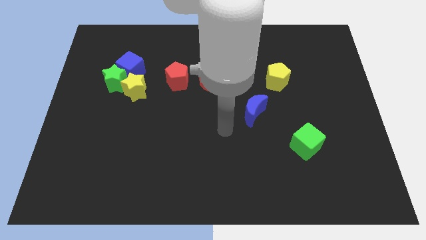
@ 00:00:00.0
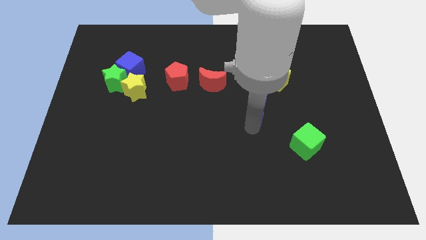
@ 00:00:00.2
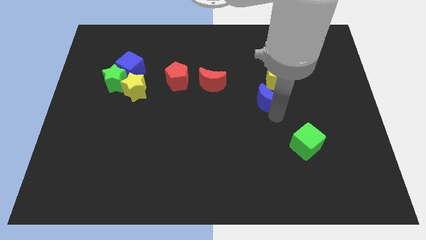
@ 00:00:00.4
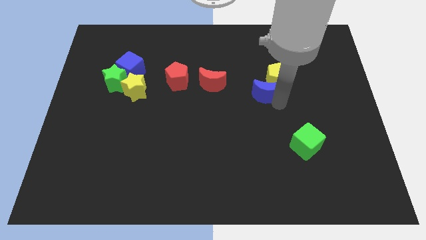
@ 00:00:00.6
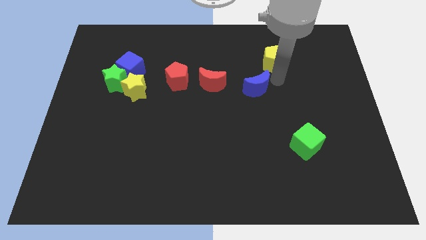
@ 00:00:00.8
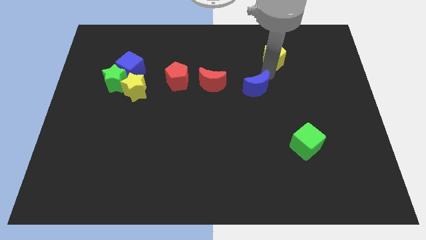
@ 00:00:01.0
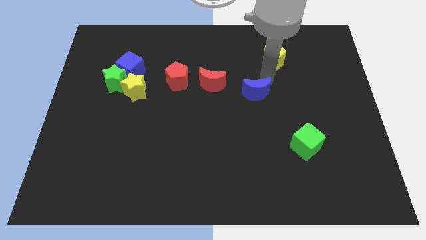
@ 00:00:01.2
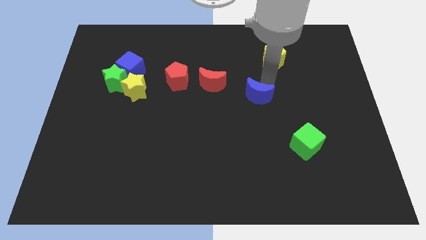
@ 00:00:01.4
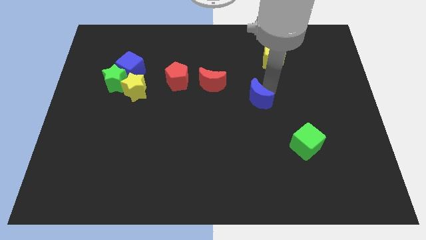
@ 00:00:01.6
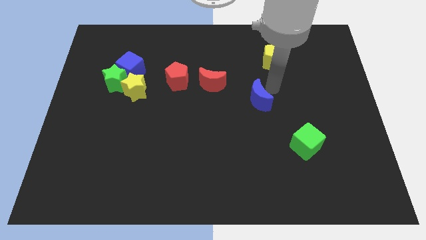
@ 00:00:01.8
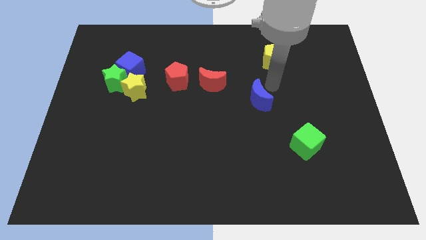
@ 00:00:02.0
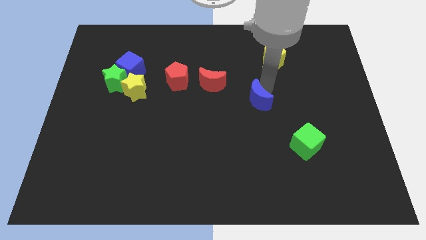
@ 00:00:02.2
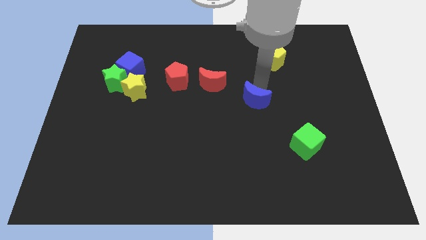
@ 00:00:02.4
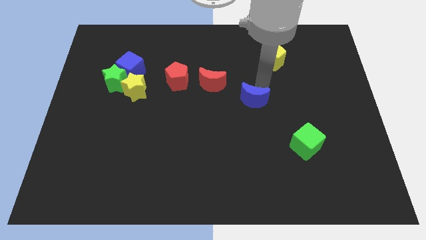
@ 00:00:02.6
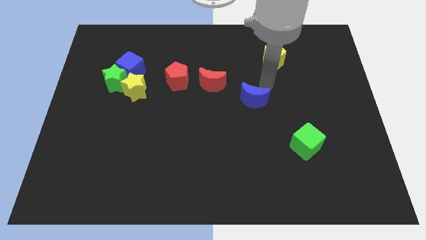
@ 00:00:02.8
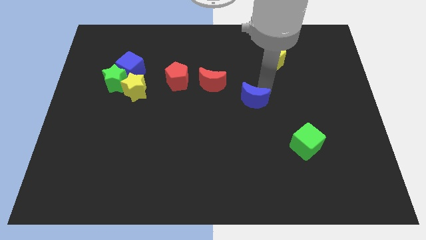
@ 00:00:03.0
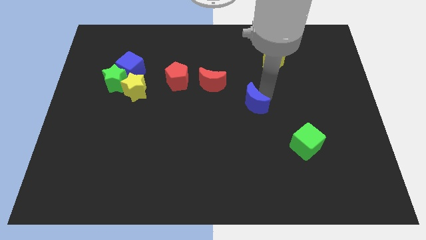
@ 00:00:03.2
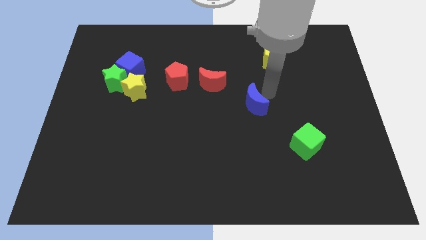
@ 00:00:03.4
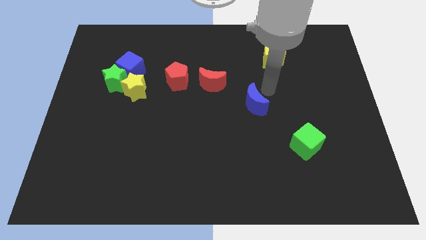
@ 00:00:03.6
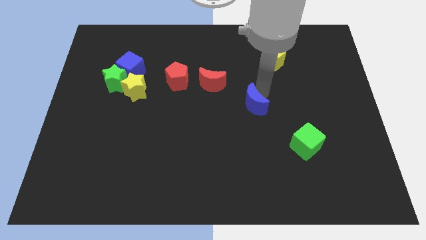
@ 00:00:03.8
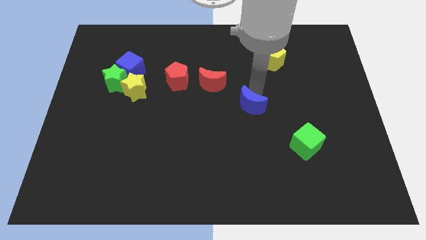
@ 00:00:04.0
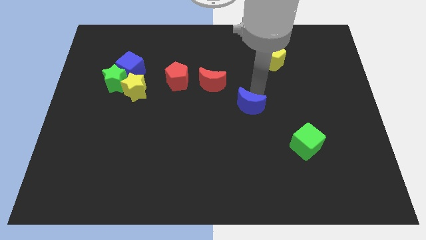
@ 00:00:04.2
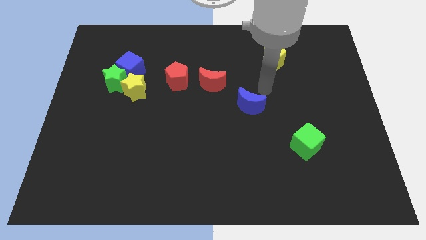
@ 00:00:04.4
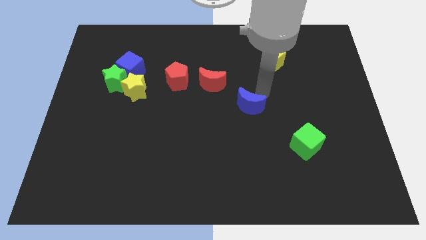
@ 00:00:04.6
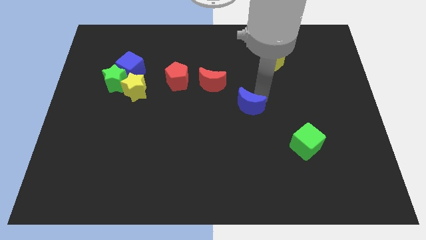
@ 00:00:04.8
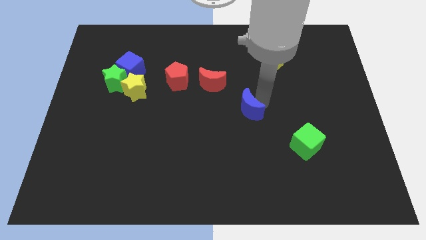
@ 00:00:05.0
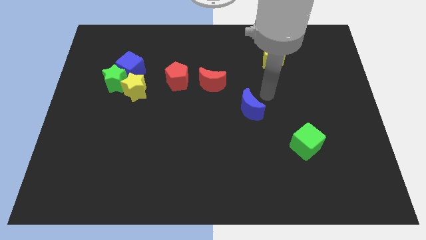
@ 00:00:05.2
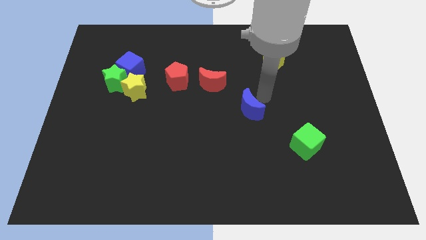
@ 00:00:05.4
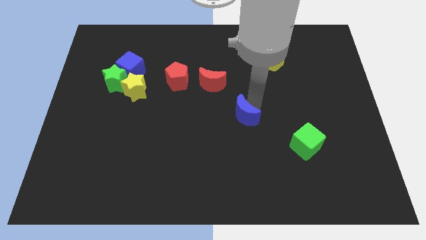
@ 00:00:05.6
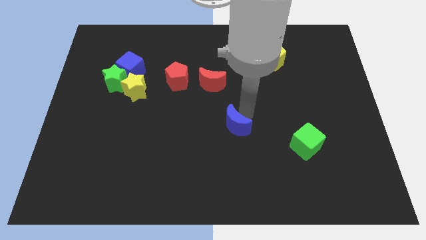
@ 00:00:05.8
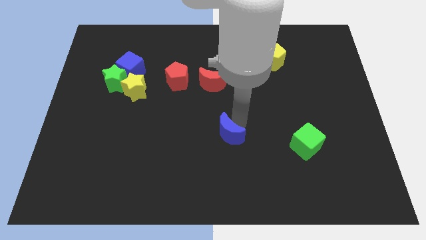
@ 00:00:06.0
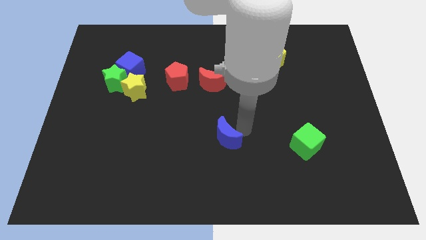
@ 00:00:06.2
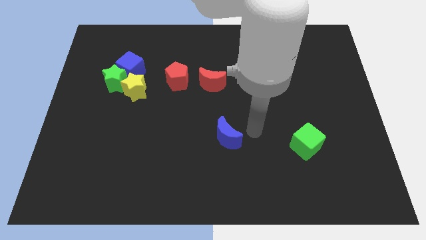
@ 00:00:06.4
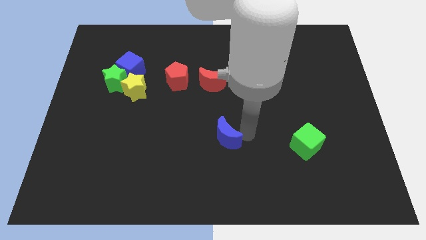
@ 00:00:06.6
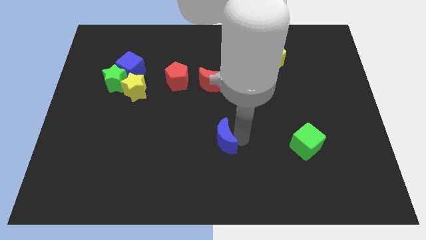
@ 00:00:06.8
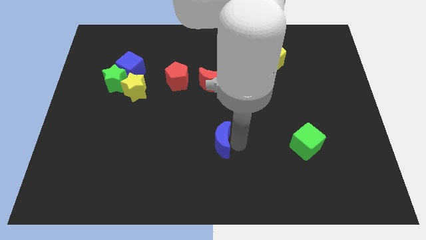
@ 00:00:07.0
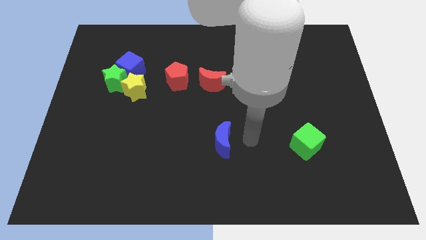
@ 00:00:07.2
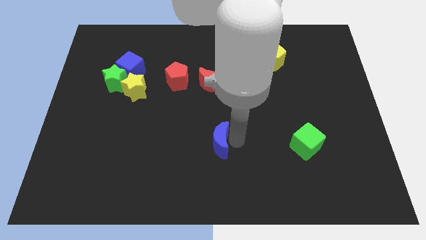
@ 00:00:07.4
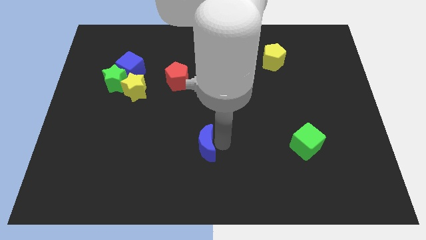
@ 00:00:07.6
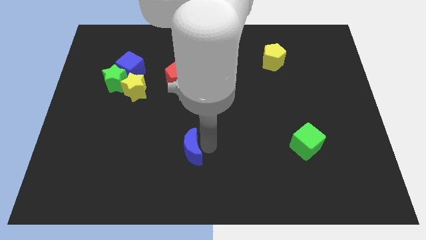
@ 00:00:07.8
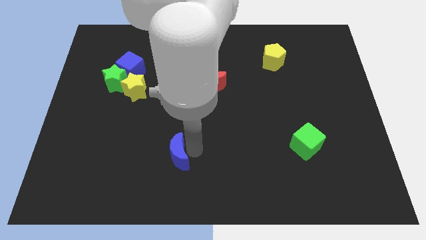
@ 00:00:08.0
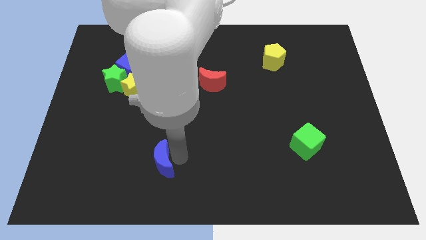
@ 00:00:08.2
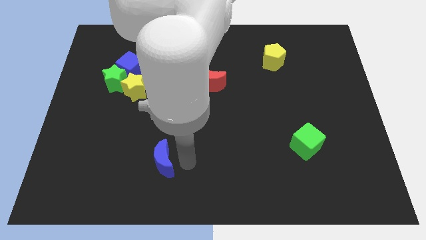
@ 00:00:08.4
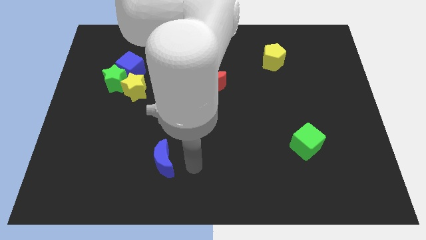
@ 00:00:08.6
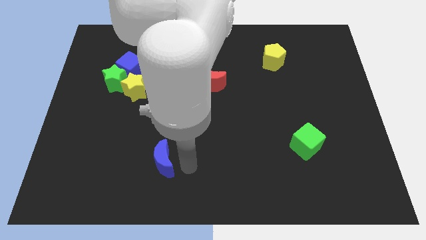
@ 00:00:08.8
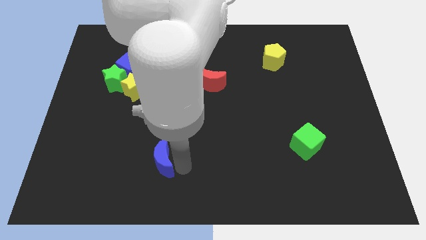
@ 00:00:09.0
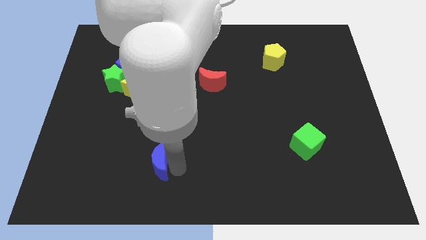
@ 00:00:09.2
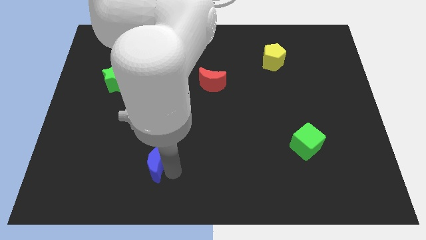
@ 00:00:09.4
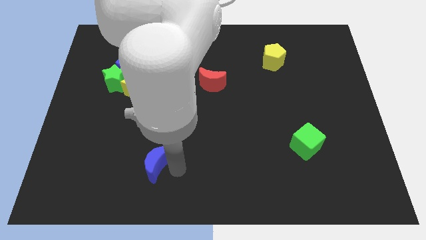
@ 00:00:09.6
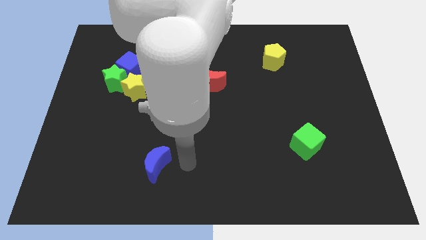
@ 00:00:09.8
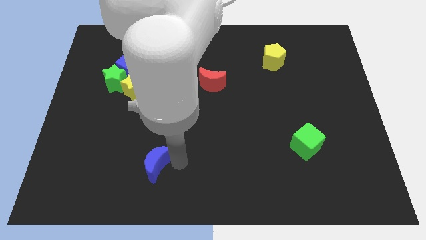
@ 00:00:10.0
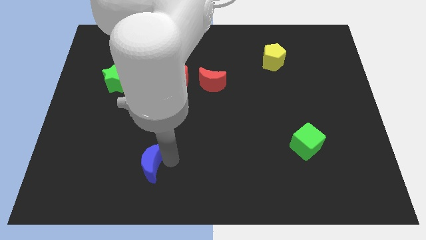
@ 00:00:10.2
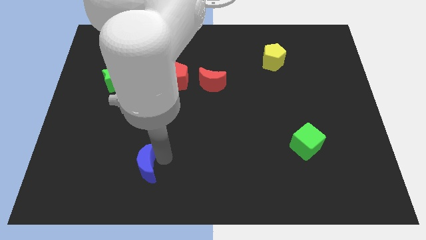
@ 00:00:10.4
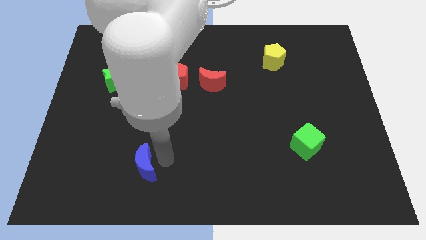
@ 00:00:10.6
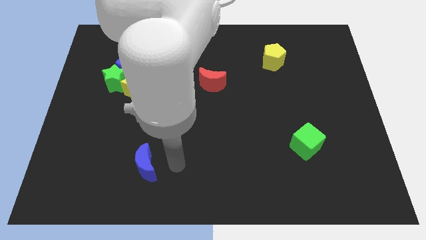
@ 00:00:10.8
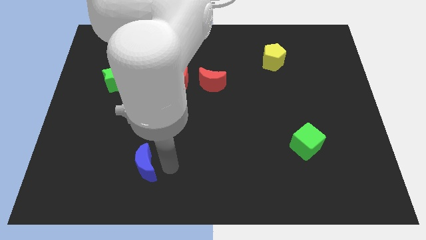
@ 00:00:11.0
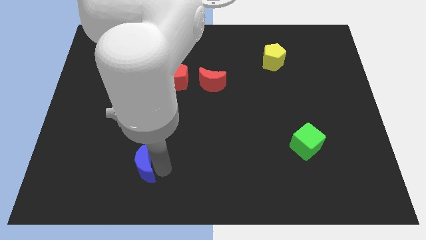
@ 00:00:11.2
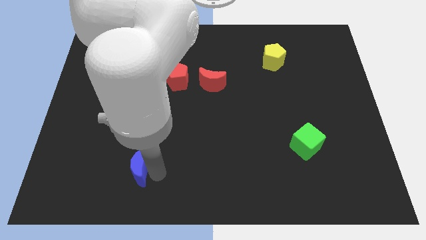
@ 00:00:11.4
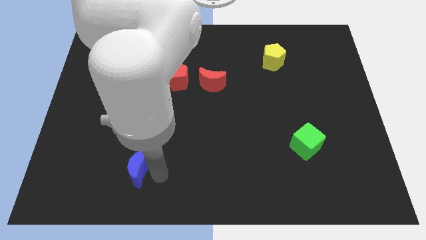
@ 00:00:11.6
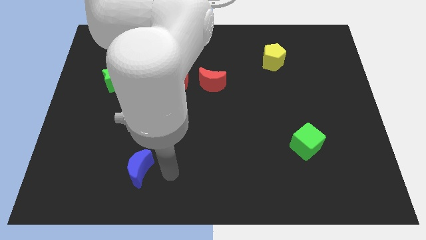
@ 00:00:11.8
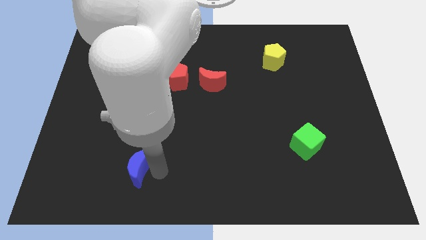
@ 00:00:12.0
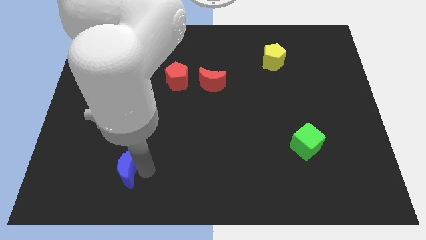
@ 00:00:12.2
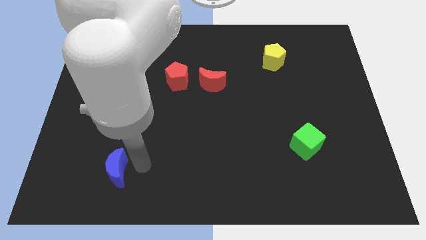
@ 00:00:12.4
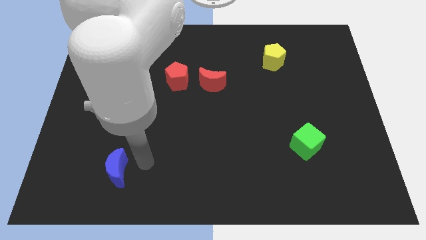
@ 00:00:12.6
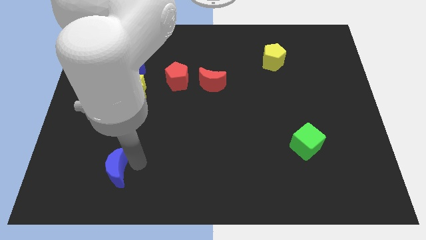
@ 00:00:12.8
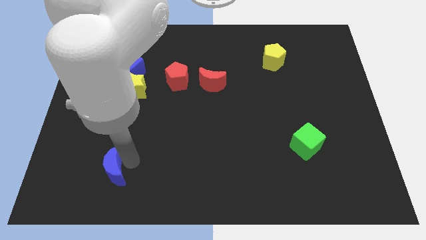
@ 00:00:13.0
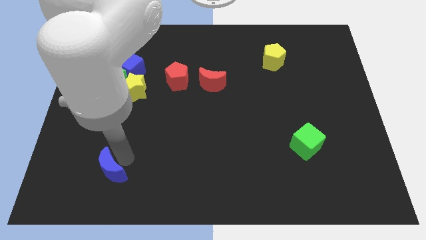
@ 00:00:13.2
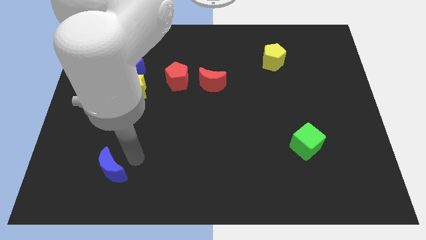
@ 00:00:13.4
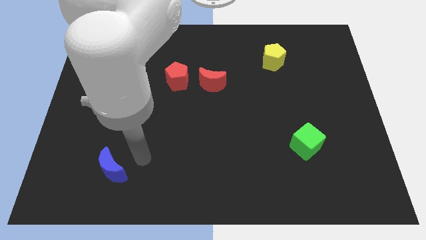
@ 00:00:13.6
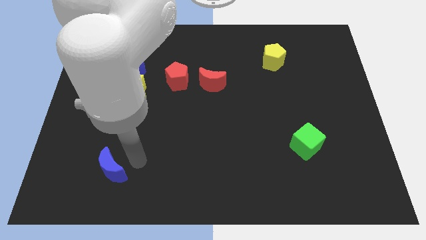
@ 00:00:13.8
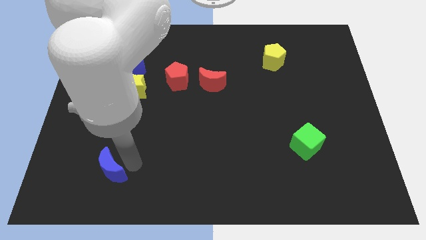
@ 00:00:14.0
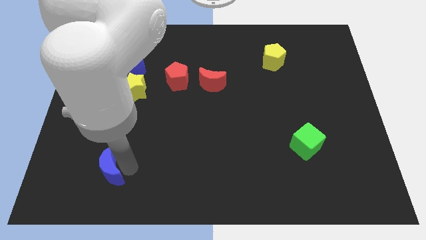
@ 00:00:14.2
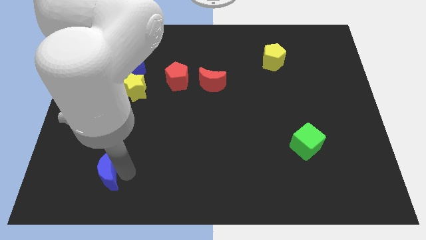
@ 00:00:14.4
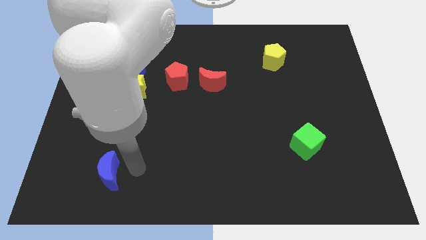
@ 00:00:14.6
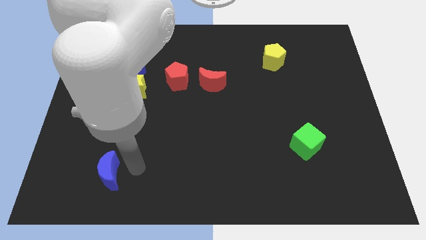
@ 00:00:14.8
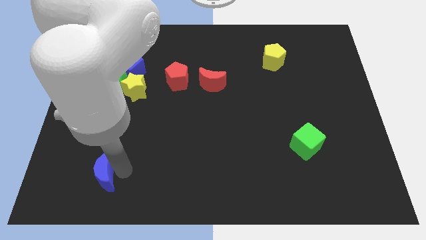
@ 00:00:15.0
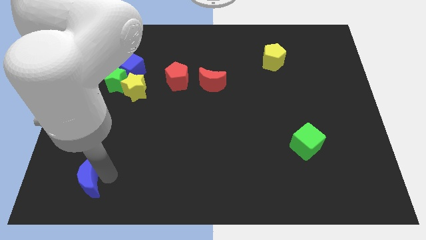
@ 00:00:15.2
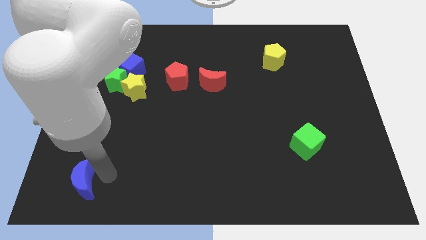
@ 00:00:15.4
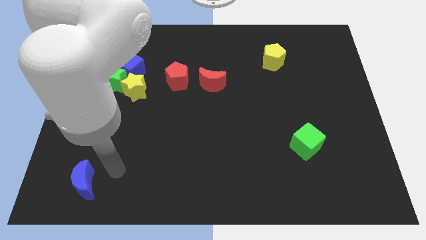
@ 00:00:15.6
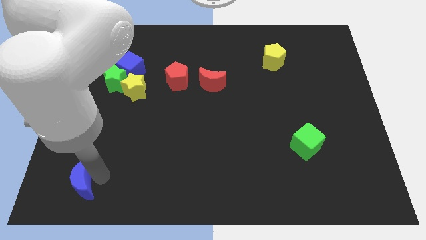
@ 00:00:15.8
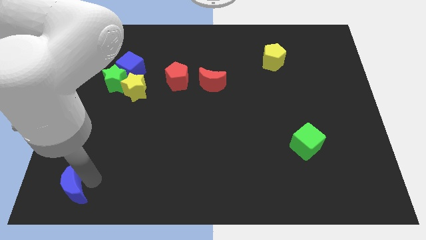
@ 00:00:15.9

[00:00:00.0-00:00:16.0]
put the blue moon to the bottom left corner
